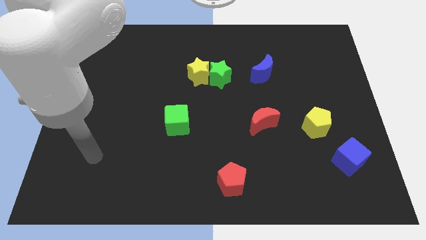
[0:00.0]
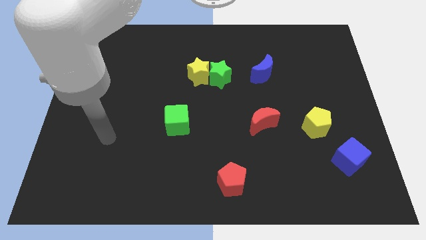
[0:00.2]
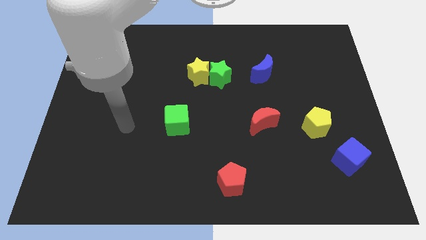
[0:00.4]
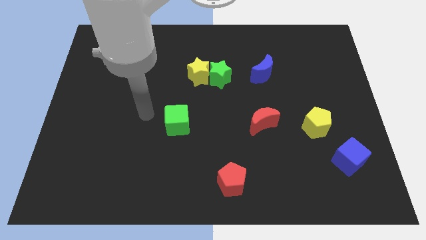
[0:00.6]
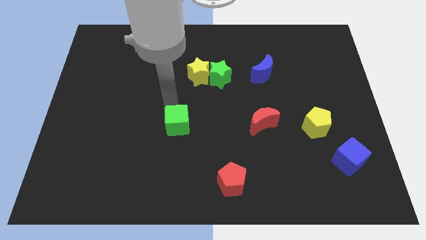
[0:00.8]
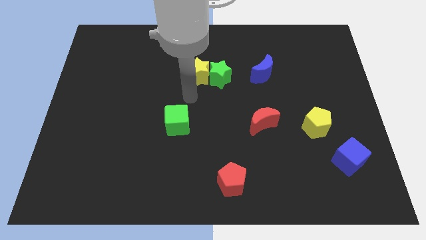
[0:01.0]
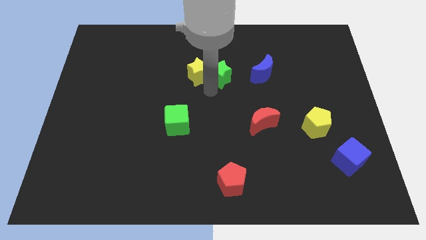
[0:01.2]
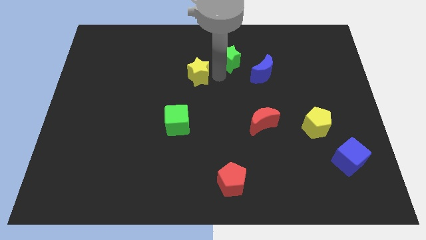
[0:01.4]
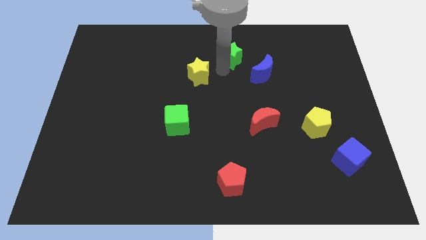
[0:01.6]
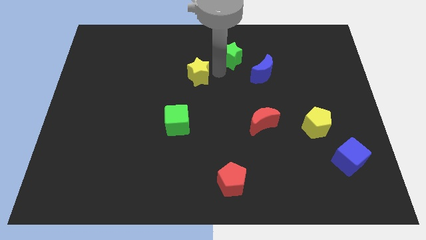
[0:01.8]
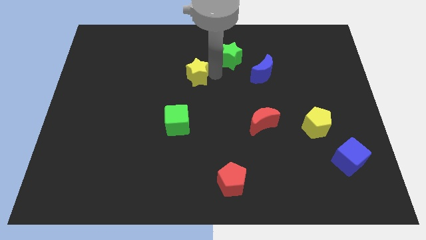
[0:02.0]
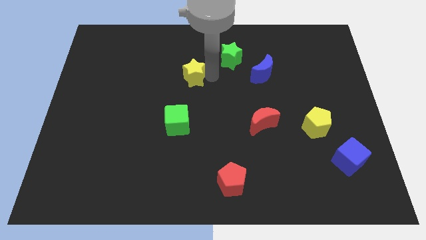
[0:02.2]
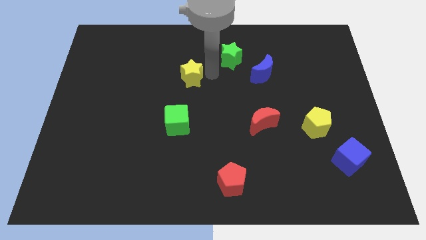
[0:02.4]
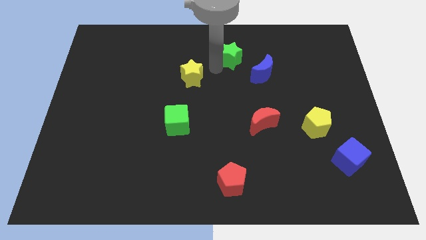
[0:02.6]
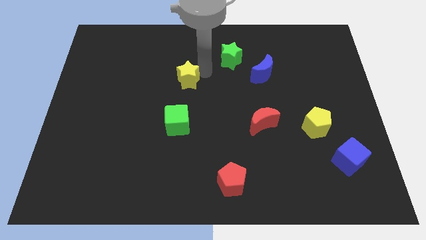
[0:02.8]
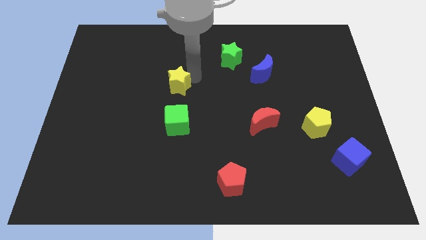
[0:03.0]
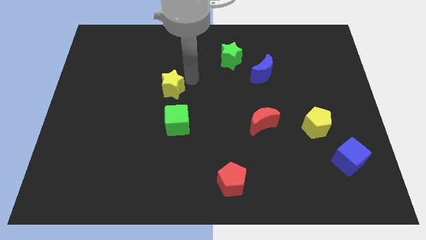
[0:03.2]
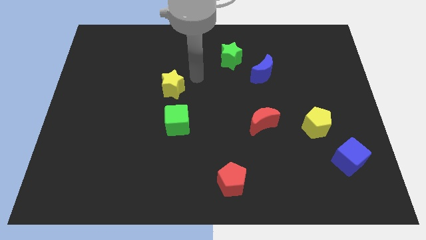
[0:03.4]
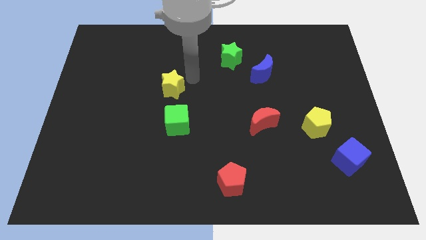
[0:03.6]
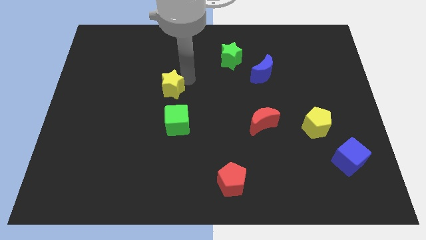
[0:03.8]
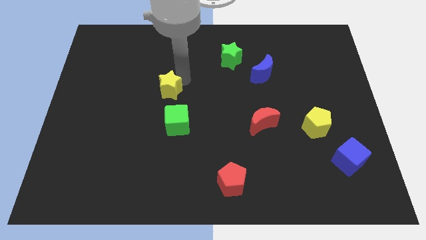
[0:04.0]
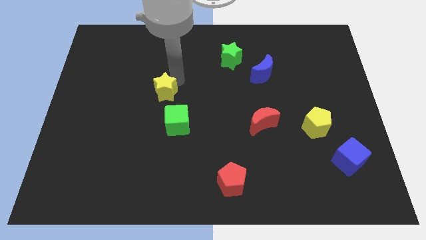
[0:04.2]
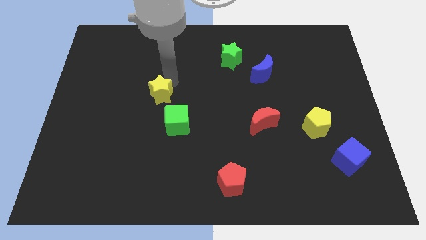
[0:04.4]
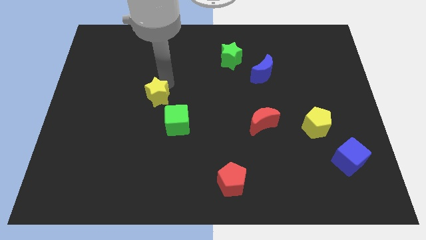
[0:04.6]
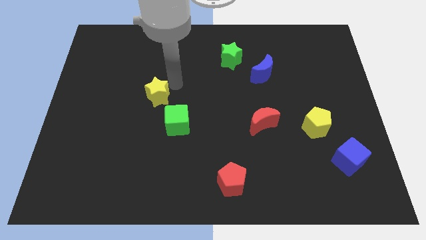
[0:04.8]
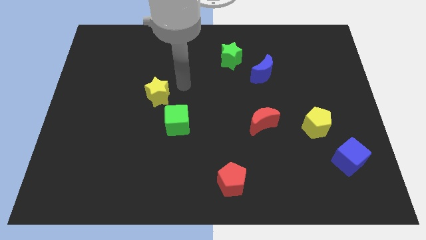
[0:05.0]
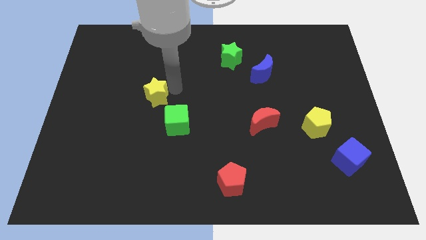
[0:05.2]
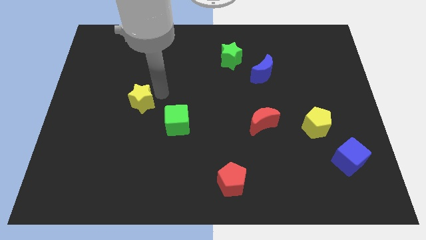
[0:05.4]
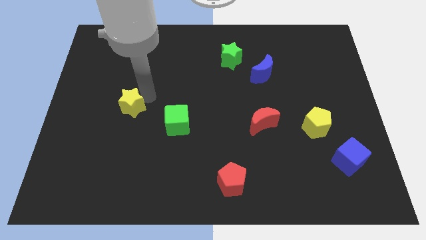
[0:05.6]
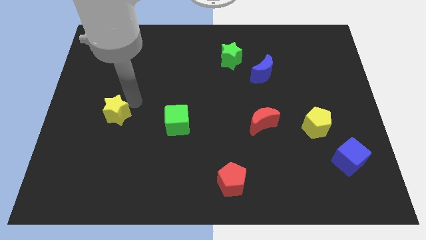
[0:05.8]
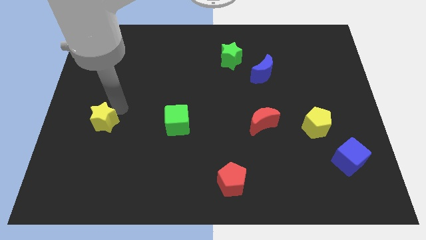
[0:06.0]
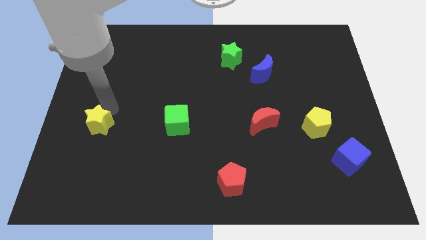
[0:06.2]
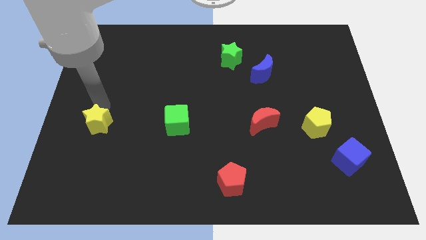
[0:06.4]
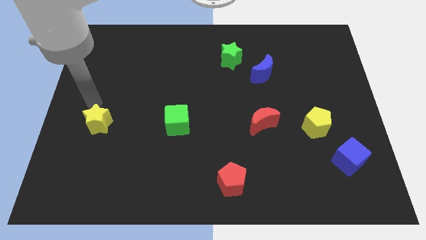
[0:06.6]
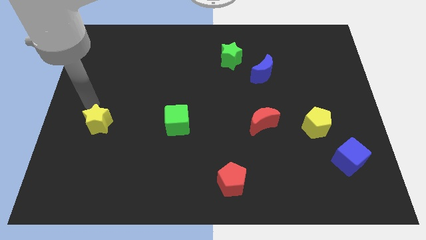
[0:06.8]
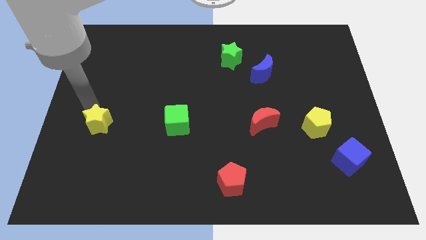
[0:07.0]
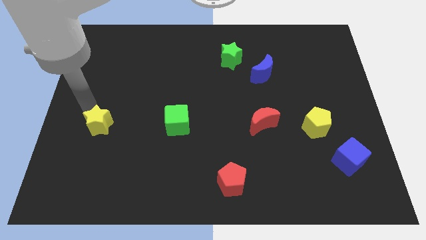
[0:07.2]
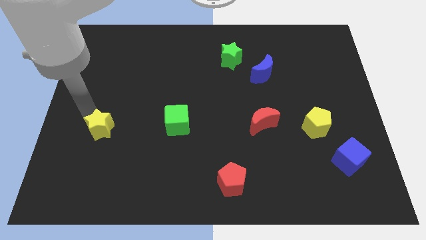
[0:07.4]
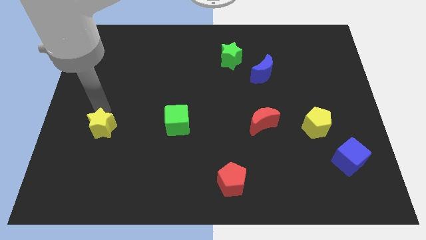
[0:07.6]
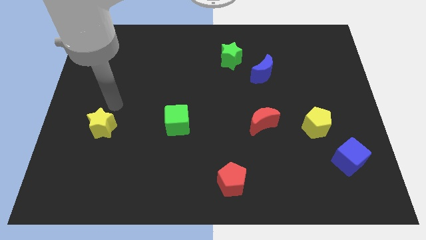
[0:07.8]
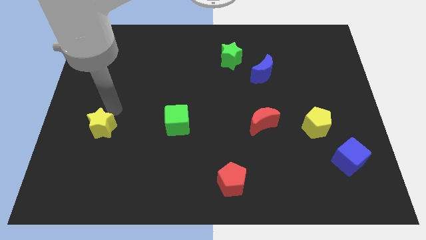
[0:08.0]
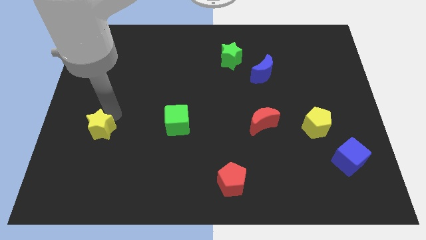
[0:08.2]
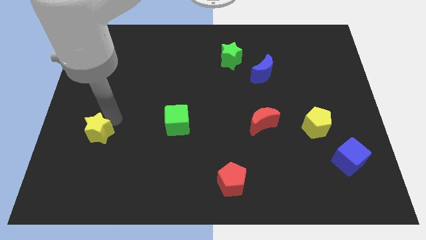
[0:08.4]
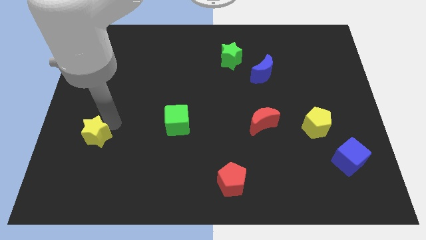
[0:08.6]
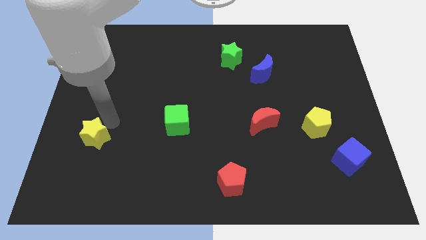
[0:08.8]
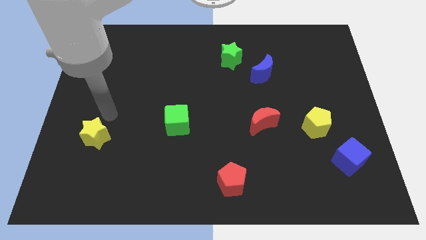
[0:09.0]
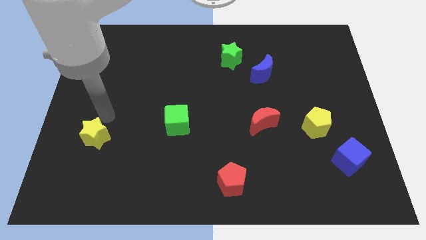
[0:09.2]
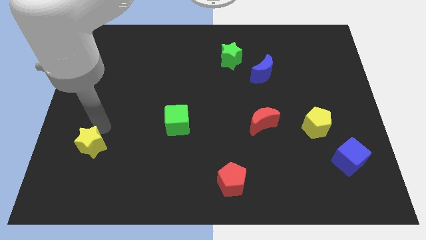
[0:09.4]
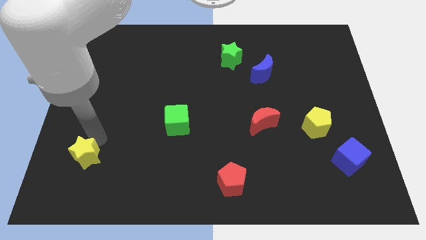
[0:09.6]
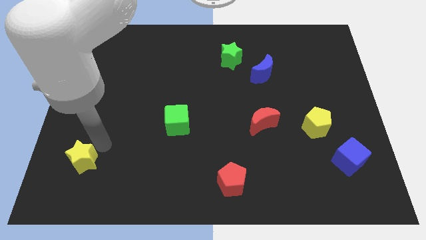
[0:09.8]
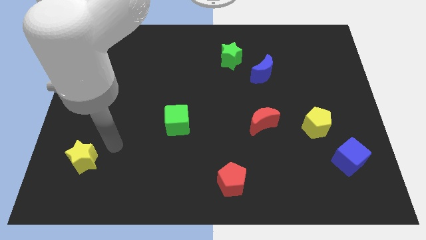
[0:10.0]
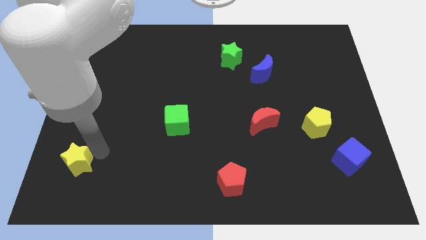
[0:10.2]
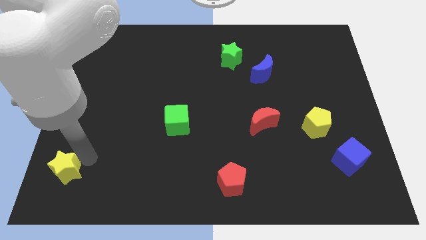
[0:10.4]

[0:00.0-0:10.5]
push the yellow star to the bottom left corner

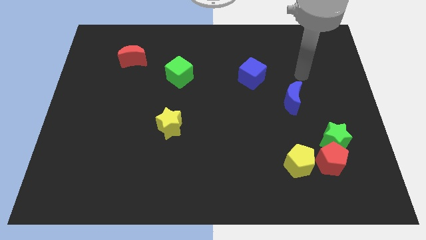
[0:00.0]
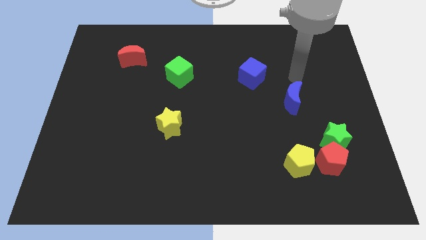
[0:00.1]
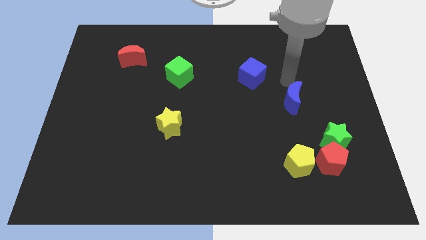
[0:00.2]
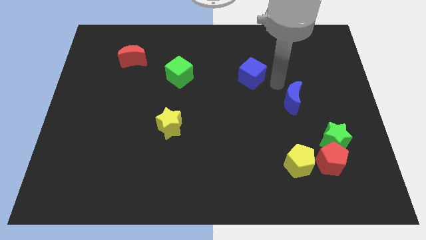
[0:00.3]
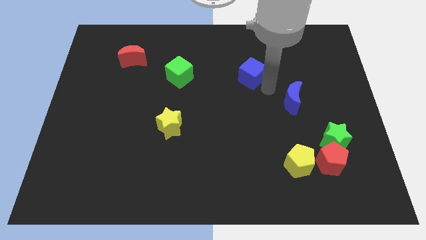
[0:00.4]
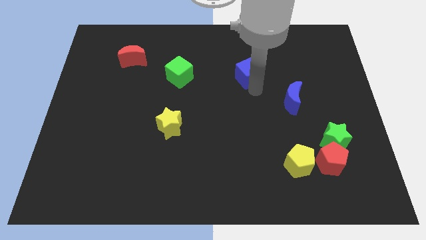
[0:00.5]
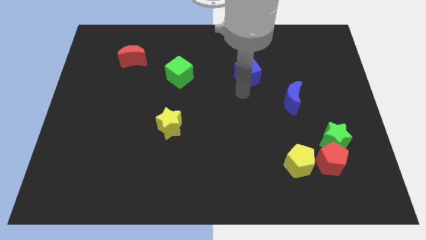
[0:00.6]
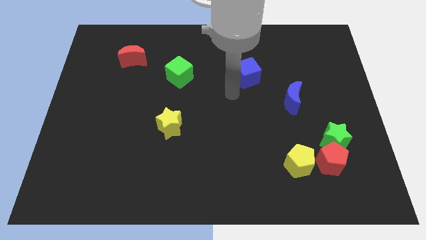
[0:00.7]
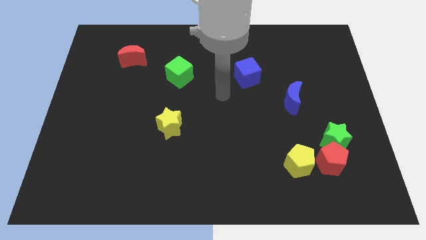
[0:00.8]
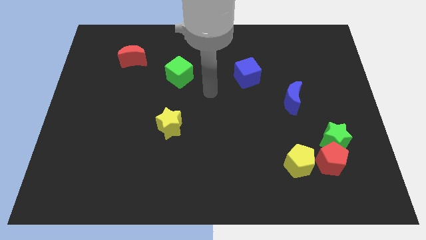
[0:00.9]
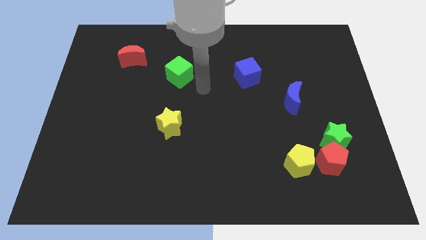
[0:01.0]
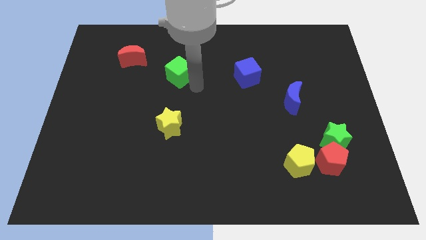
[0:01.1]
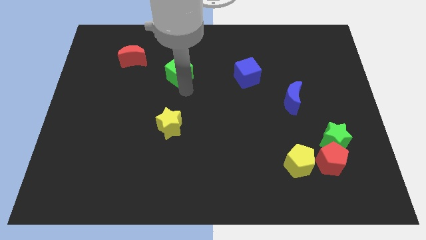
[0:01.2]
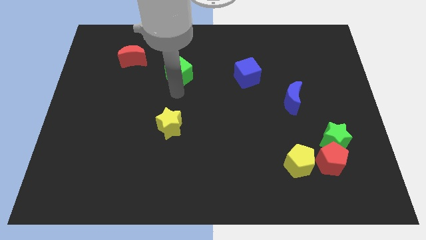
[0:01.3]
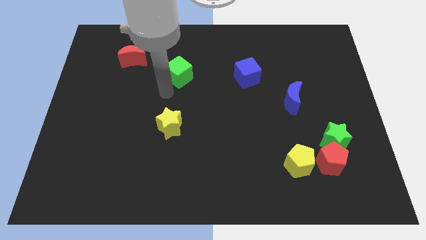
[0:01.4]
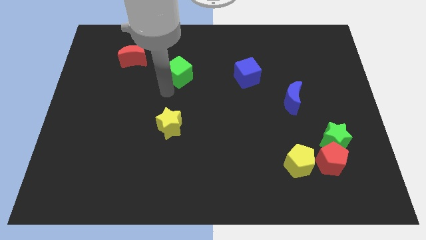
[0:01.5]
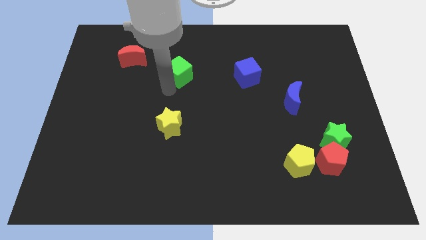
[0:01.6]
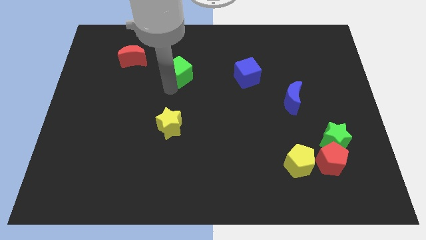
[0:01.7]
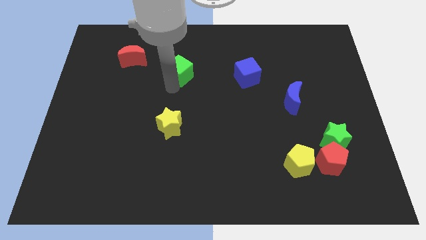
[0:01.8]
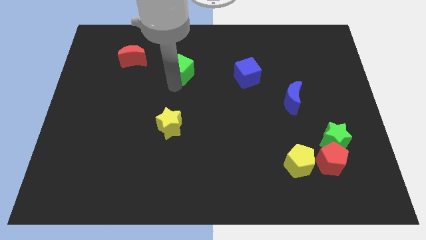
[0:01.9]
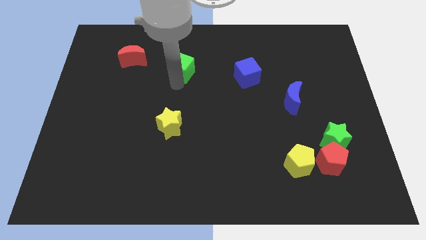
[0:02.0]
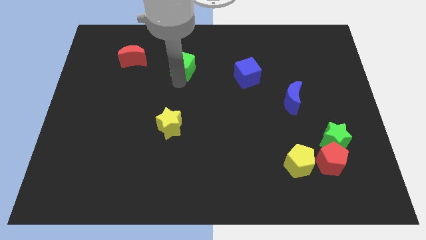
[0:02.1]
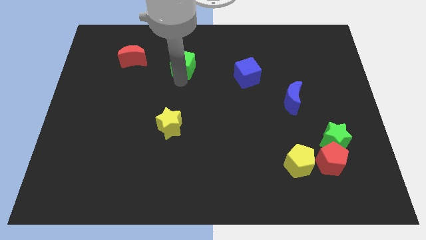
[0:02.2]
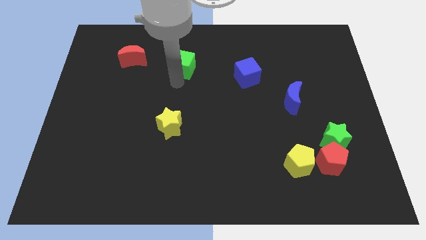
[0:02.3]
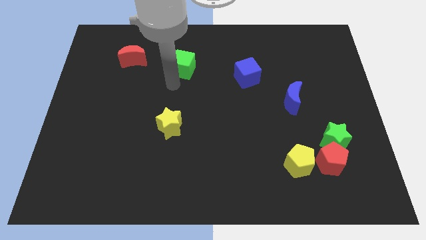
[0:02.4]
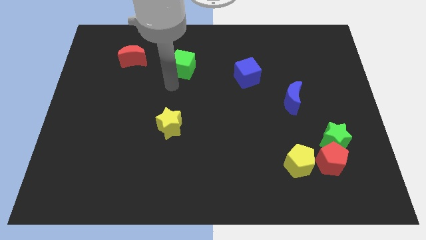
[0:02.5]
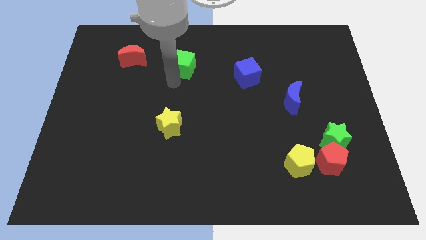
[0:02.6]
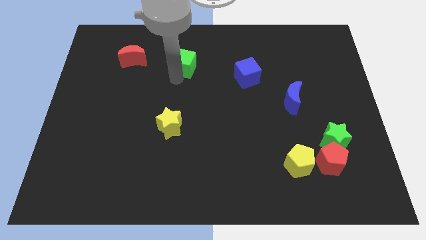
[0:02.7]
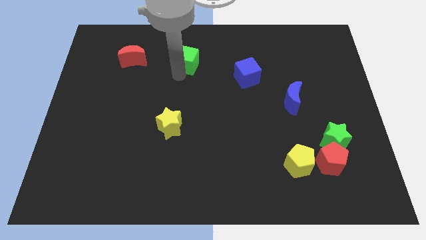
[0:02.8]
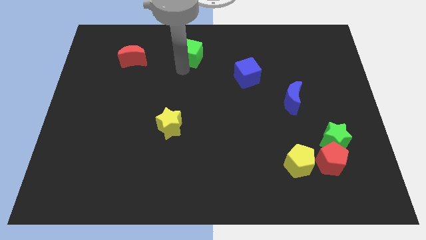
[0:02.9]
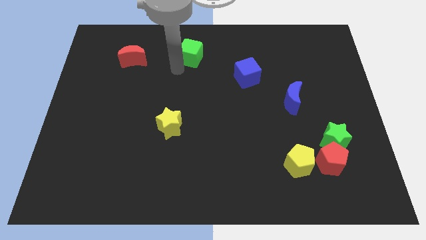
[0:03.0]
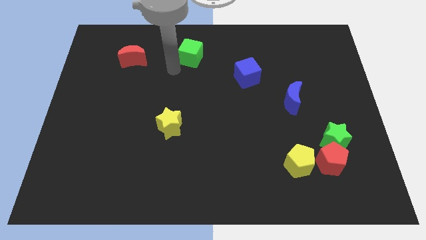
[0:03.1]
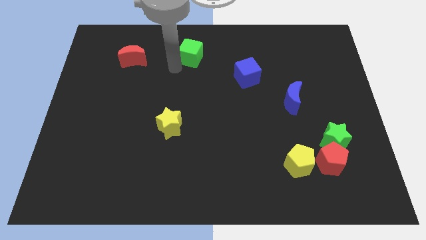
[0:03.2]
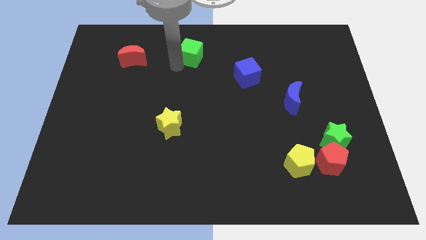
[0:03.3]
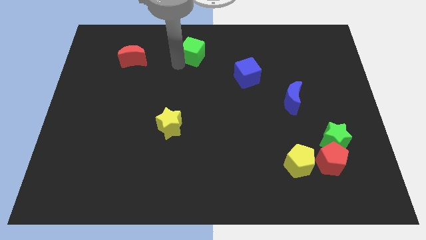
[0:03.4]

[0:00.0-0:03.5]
slide the green cube to the top side
